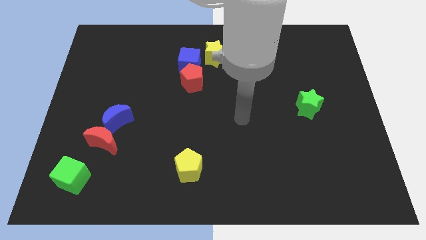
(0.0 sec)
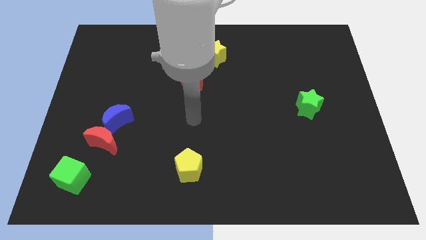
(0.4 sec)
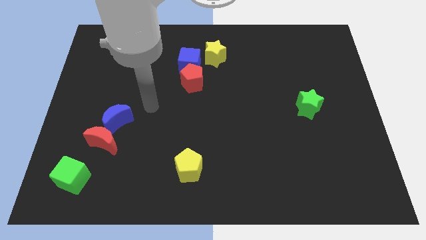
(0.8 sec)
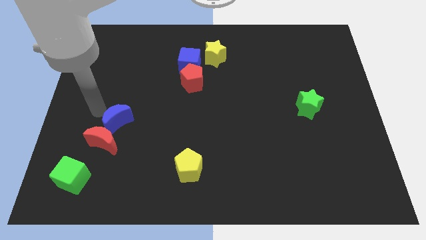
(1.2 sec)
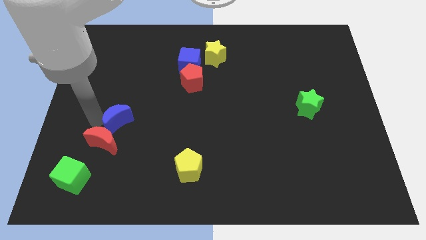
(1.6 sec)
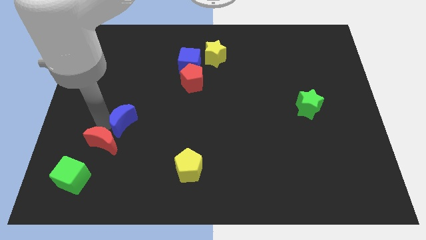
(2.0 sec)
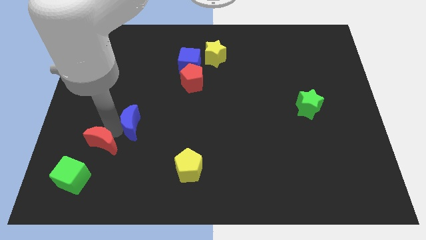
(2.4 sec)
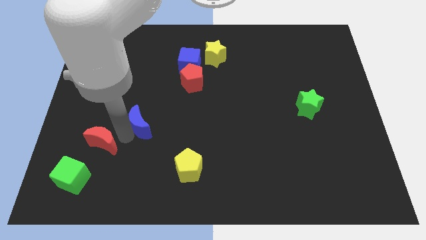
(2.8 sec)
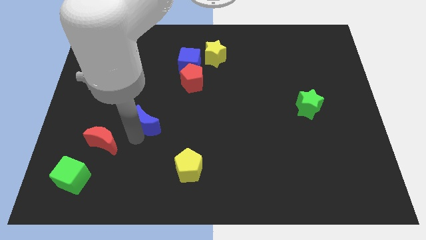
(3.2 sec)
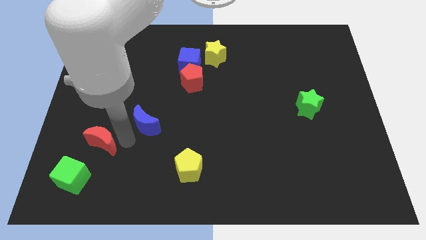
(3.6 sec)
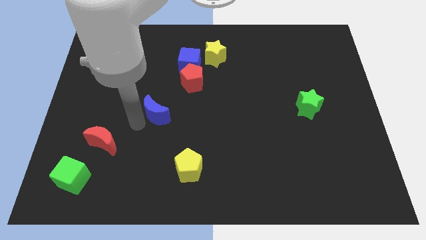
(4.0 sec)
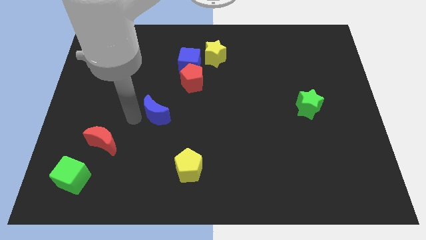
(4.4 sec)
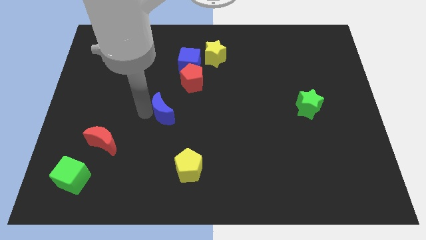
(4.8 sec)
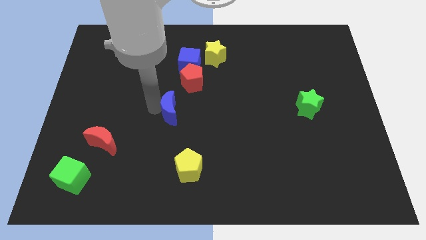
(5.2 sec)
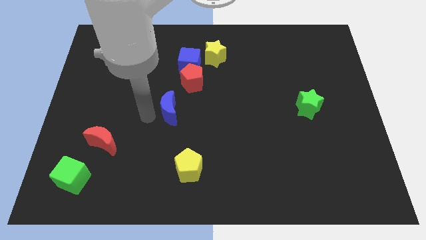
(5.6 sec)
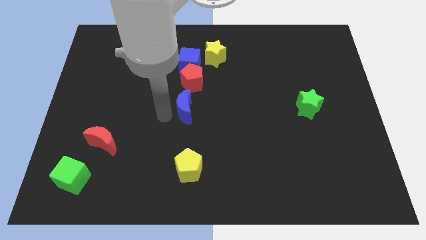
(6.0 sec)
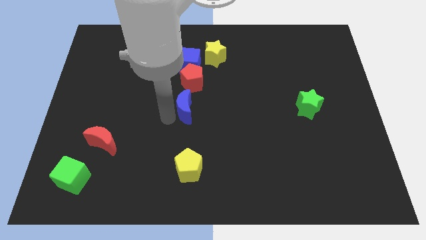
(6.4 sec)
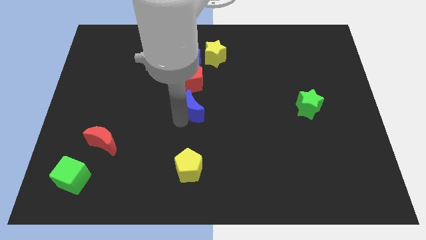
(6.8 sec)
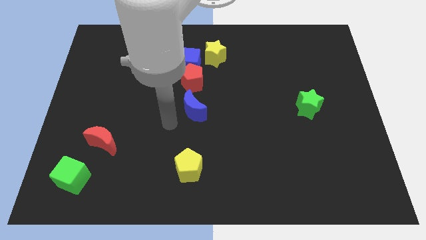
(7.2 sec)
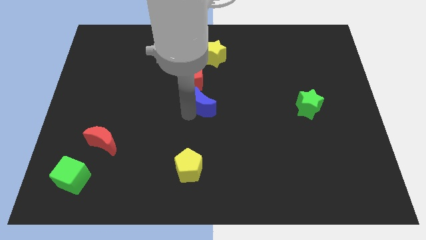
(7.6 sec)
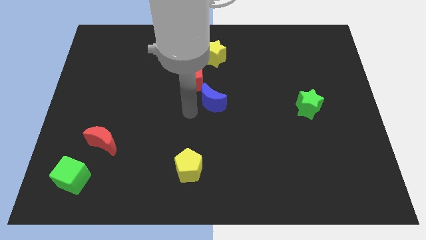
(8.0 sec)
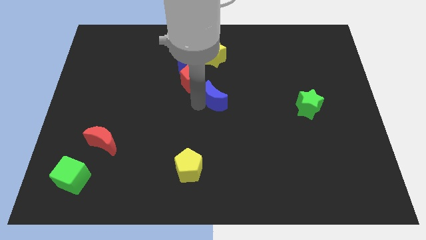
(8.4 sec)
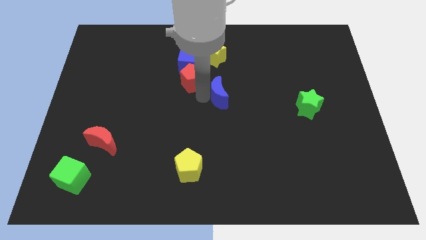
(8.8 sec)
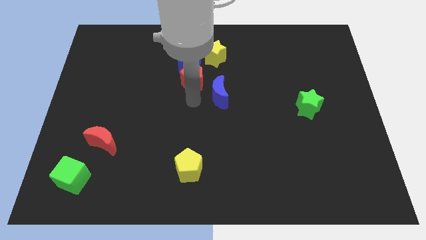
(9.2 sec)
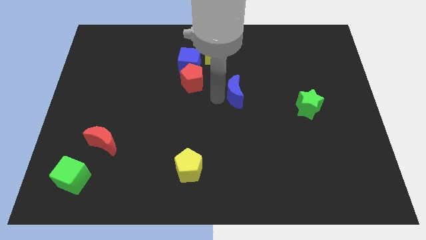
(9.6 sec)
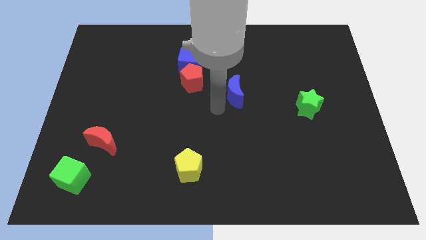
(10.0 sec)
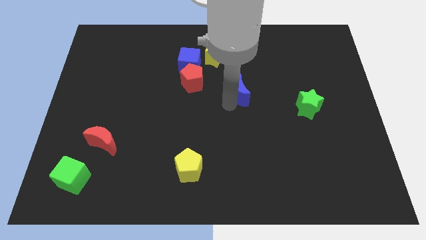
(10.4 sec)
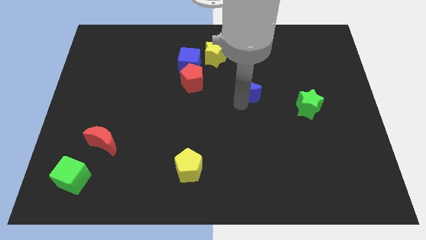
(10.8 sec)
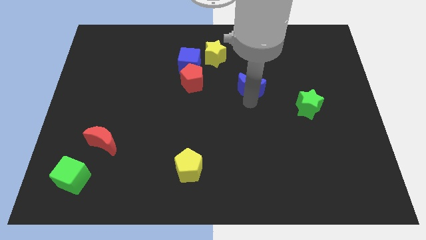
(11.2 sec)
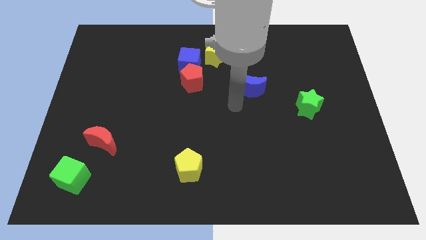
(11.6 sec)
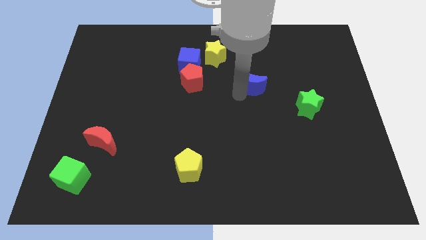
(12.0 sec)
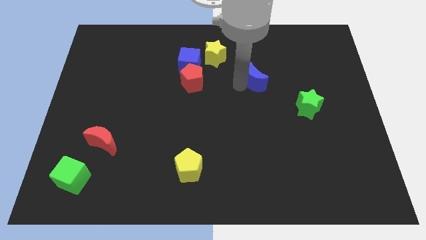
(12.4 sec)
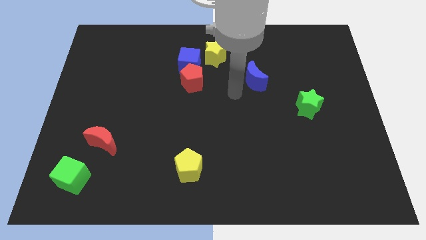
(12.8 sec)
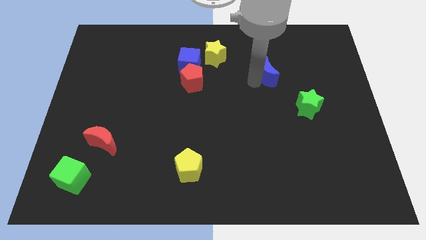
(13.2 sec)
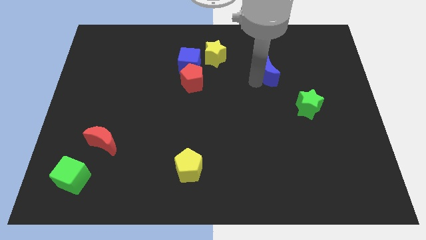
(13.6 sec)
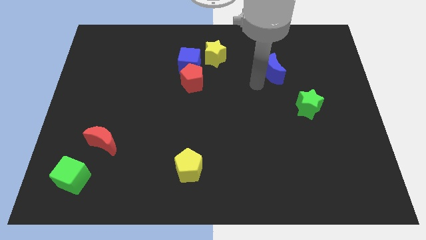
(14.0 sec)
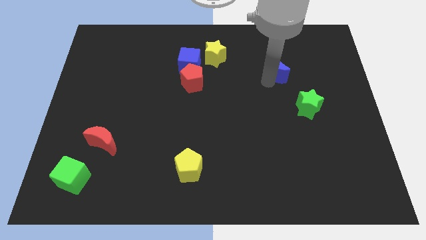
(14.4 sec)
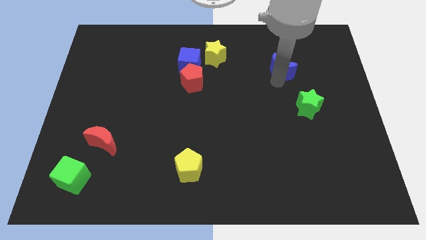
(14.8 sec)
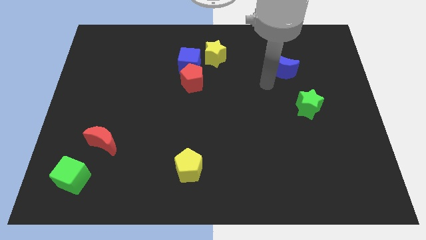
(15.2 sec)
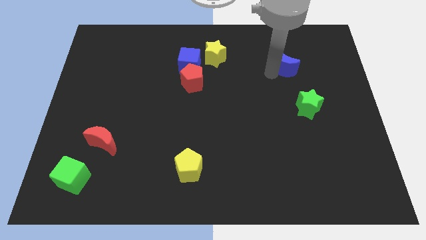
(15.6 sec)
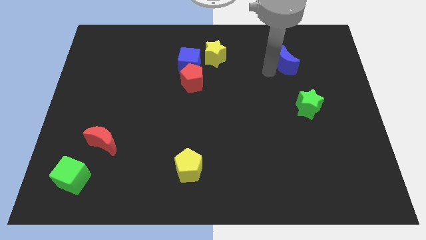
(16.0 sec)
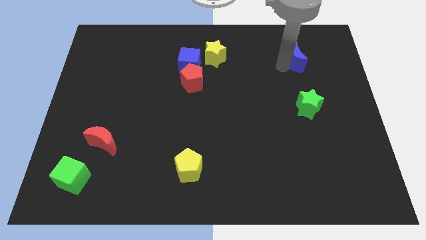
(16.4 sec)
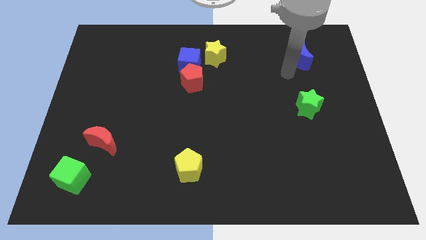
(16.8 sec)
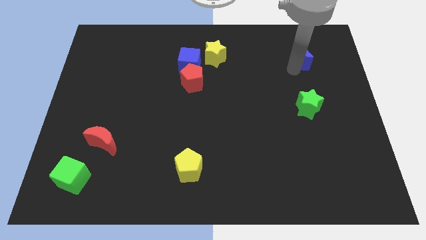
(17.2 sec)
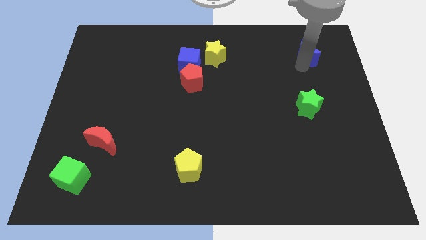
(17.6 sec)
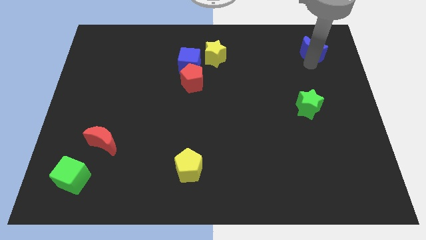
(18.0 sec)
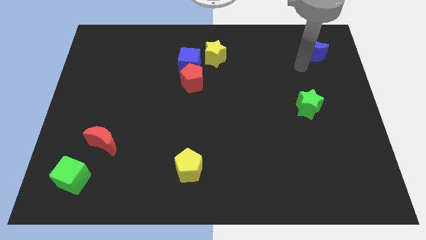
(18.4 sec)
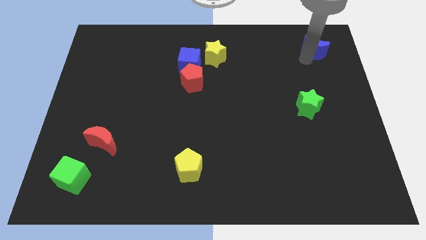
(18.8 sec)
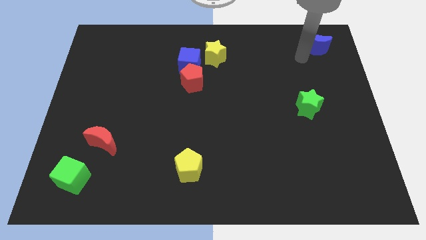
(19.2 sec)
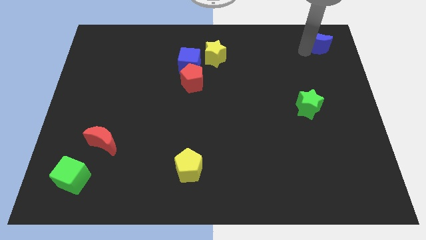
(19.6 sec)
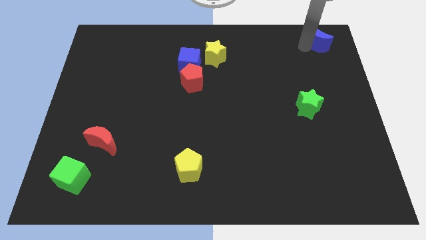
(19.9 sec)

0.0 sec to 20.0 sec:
slide the blue moon to the top right corner

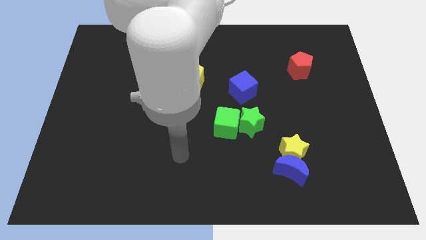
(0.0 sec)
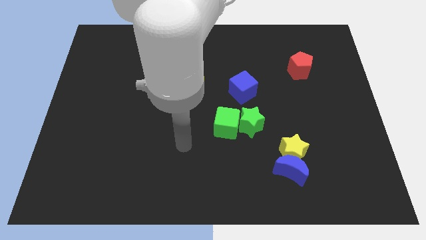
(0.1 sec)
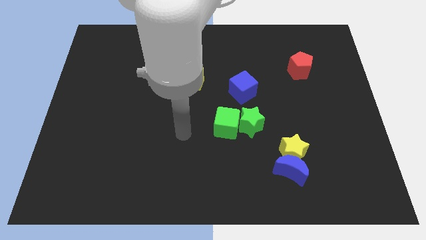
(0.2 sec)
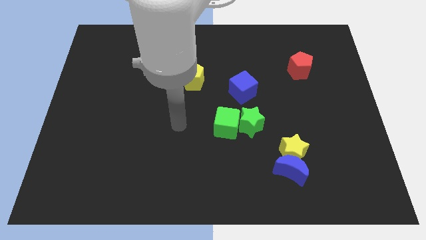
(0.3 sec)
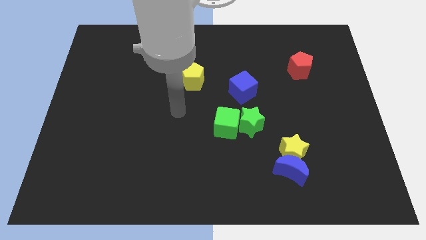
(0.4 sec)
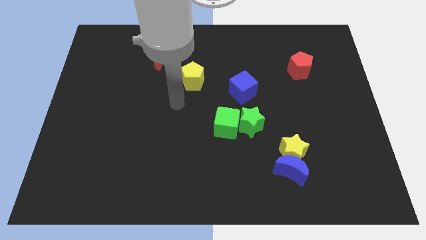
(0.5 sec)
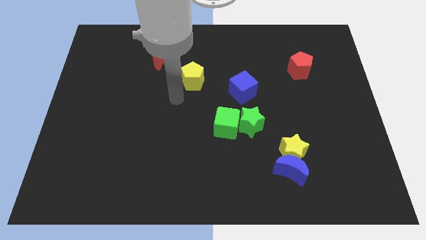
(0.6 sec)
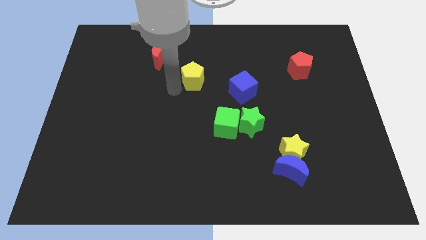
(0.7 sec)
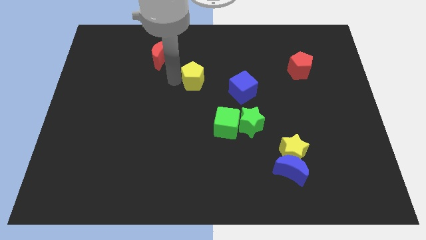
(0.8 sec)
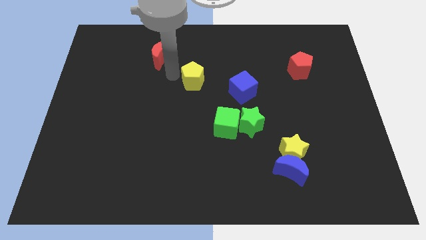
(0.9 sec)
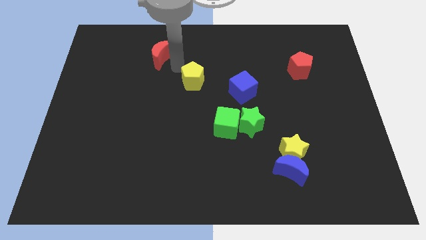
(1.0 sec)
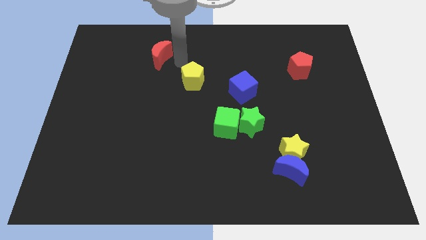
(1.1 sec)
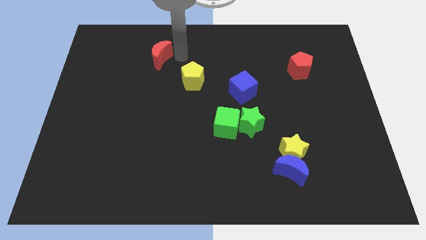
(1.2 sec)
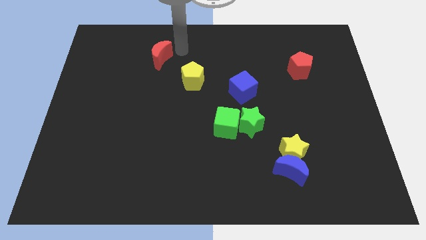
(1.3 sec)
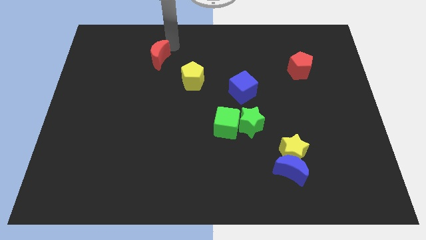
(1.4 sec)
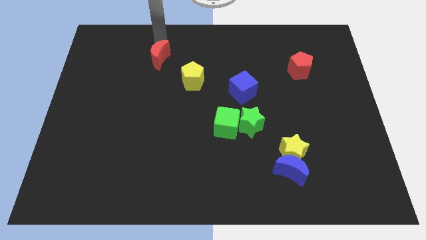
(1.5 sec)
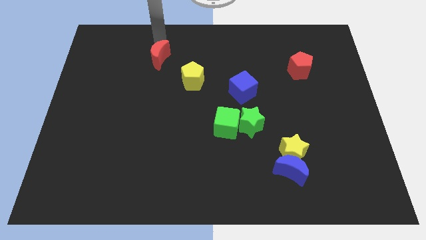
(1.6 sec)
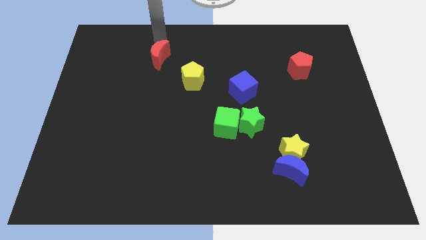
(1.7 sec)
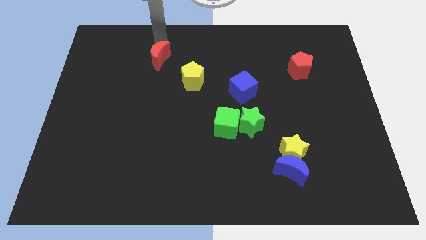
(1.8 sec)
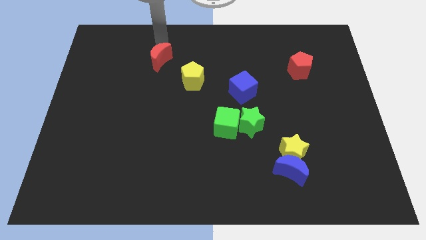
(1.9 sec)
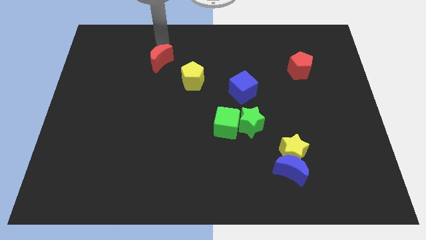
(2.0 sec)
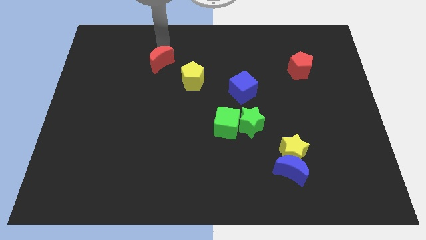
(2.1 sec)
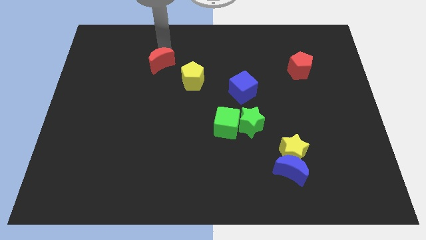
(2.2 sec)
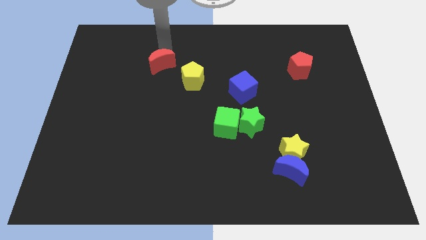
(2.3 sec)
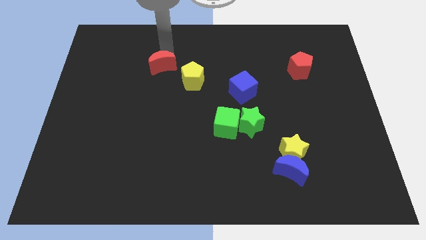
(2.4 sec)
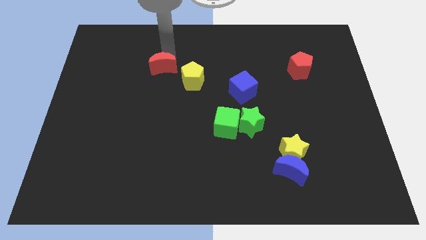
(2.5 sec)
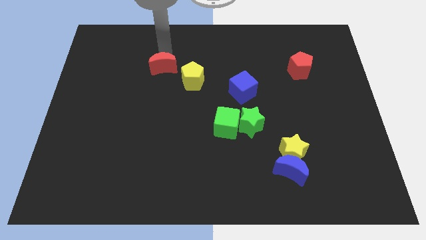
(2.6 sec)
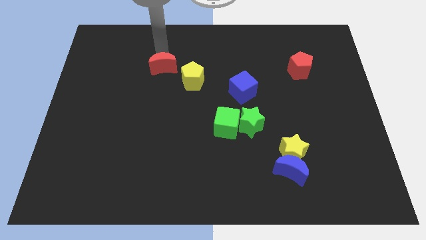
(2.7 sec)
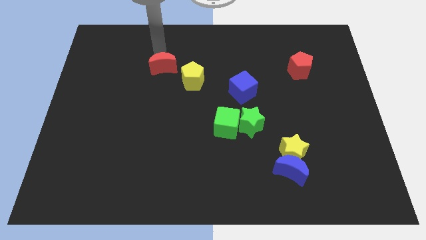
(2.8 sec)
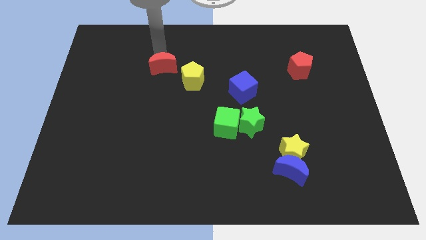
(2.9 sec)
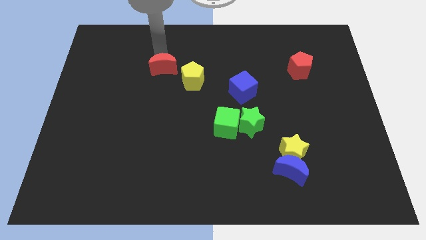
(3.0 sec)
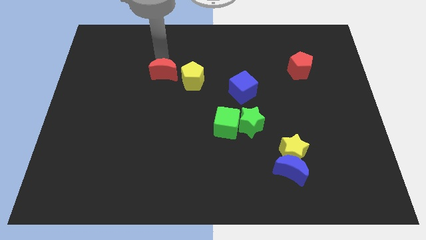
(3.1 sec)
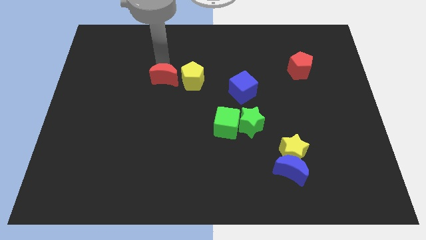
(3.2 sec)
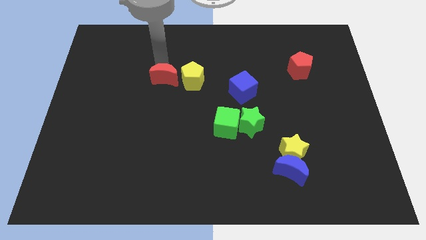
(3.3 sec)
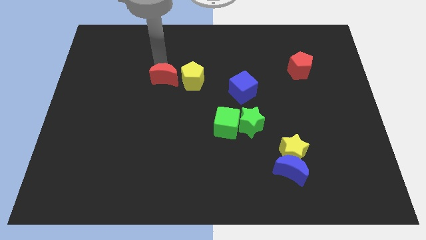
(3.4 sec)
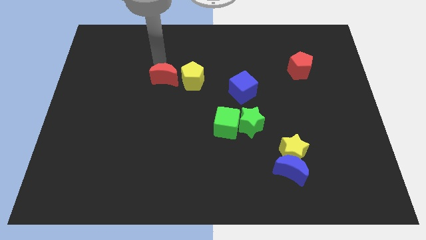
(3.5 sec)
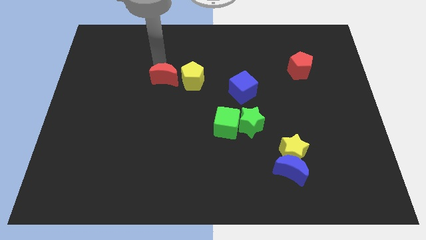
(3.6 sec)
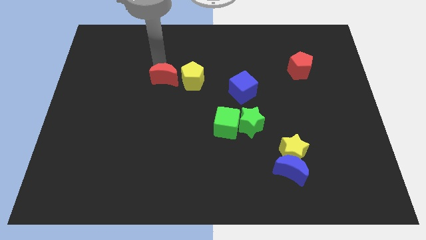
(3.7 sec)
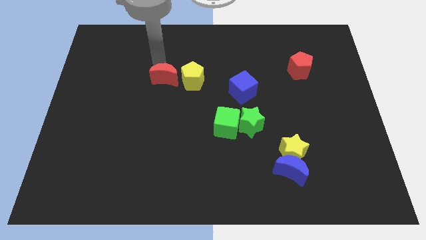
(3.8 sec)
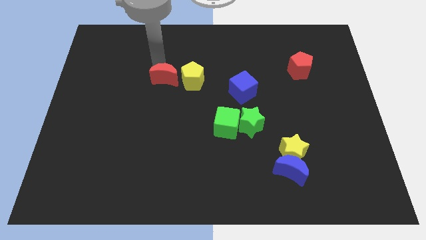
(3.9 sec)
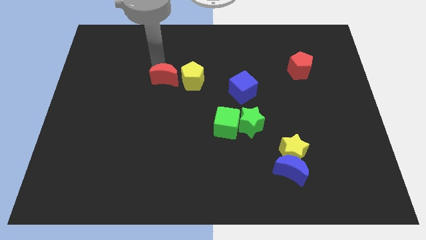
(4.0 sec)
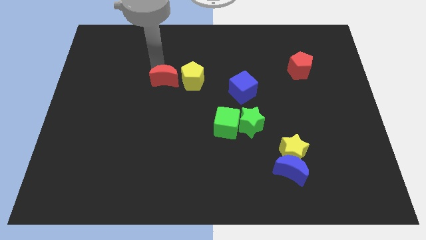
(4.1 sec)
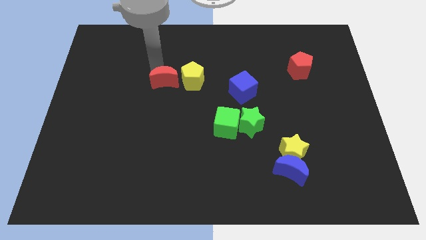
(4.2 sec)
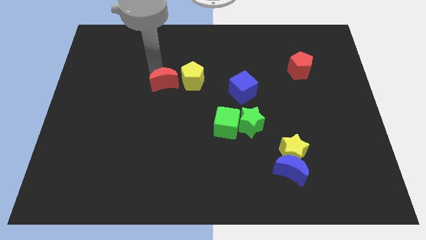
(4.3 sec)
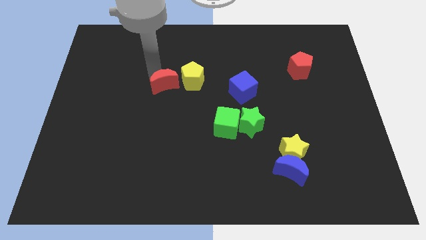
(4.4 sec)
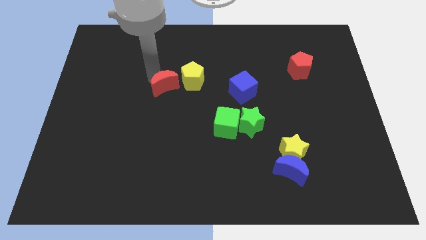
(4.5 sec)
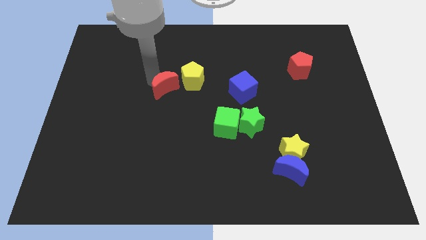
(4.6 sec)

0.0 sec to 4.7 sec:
move the red moon to the middle of the board
